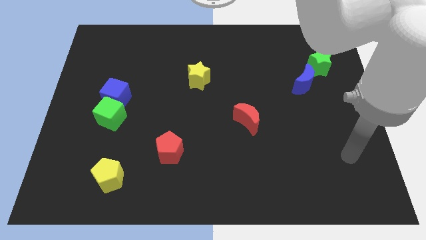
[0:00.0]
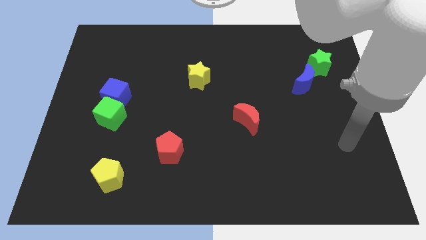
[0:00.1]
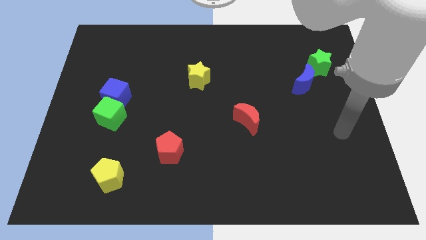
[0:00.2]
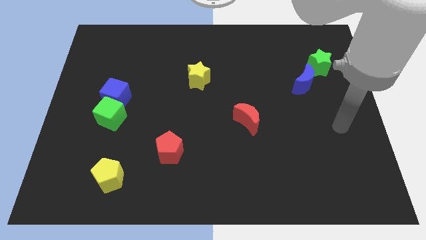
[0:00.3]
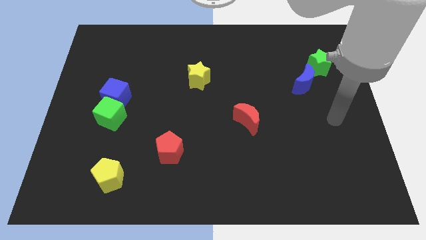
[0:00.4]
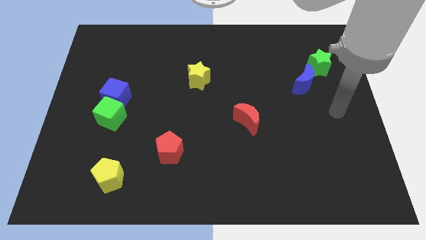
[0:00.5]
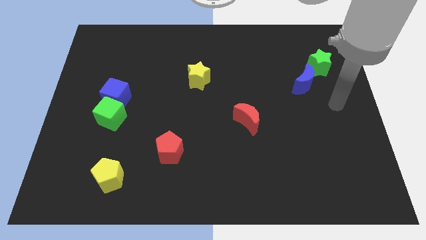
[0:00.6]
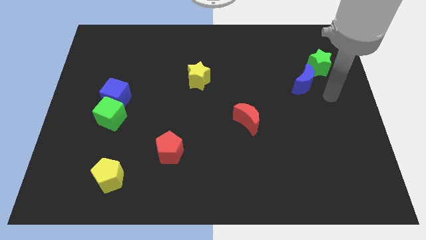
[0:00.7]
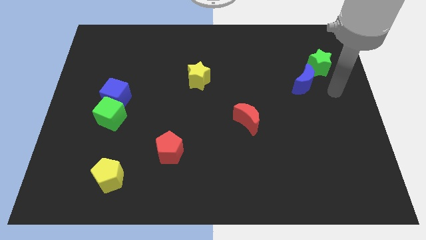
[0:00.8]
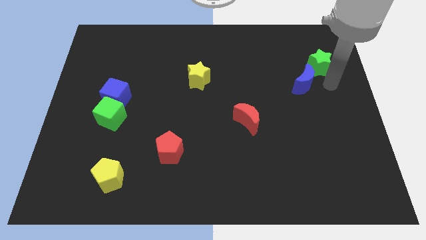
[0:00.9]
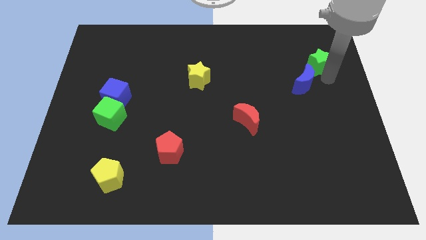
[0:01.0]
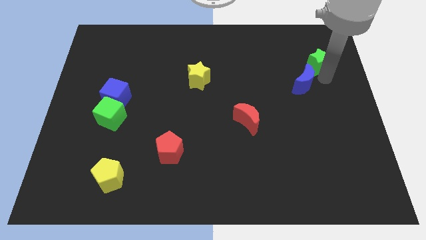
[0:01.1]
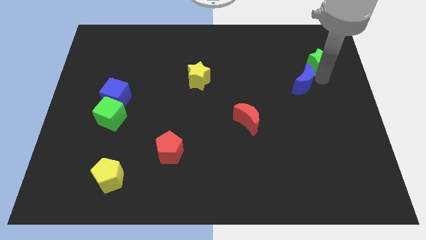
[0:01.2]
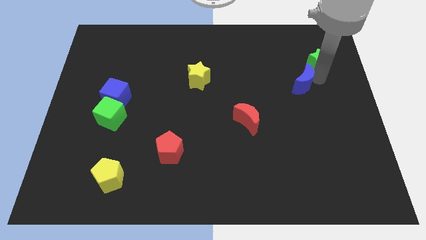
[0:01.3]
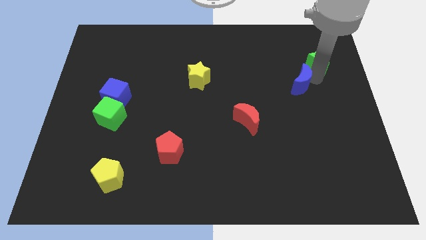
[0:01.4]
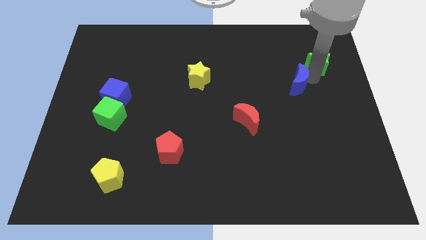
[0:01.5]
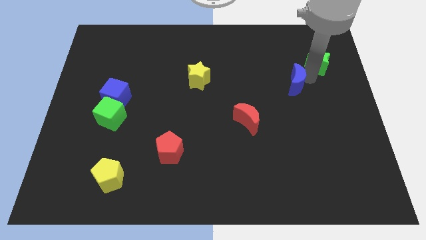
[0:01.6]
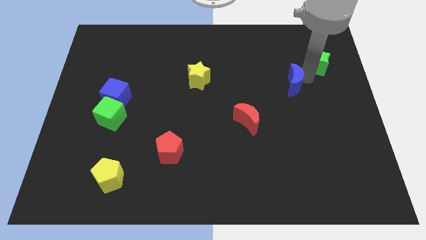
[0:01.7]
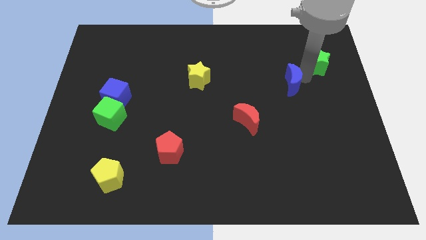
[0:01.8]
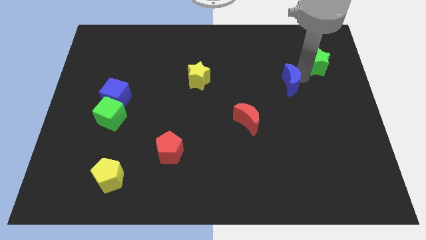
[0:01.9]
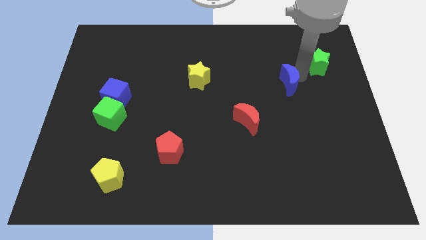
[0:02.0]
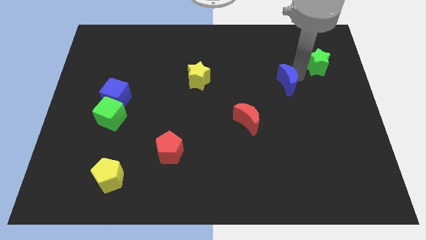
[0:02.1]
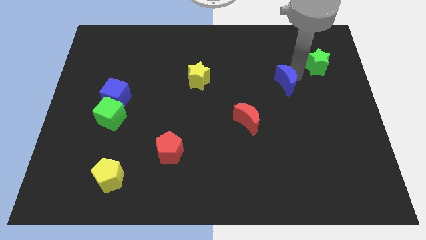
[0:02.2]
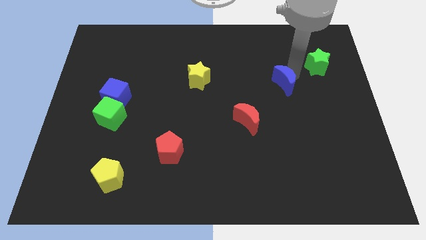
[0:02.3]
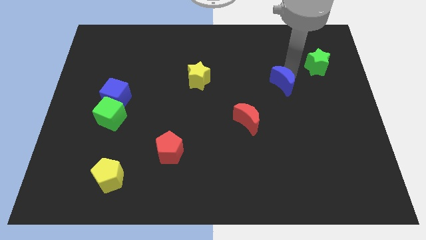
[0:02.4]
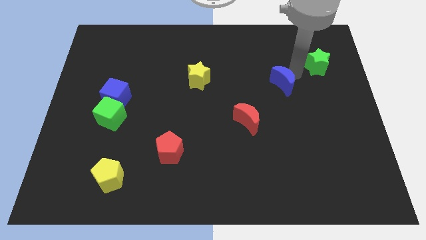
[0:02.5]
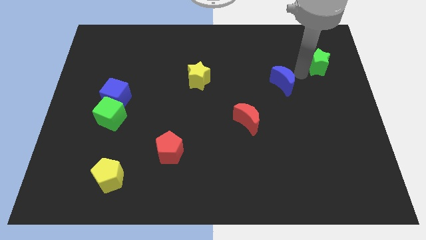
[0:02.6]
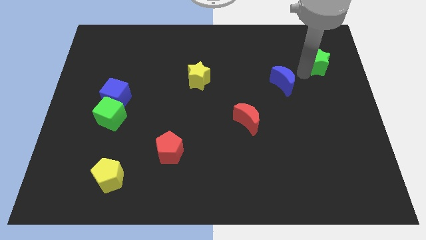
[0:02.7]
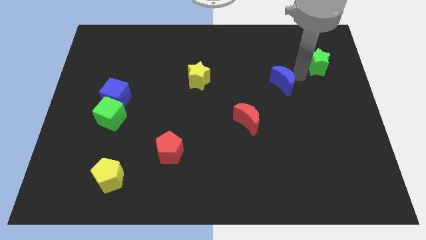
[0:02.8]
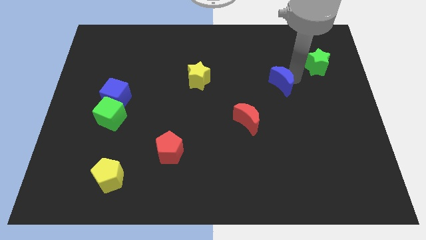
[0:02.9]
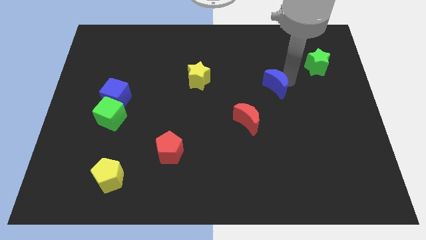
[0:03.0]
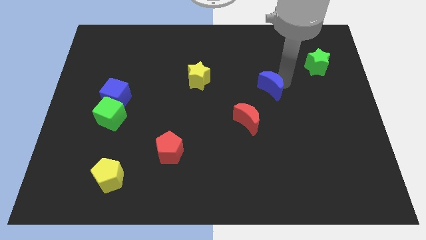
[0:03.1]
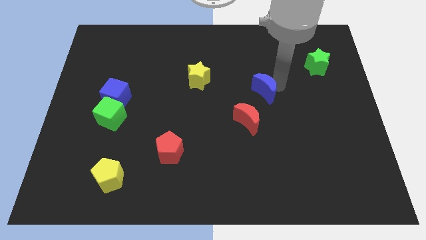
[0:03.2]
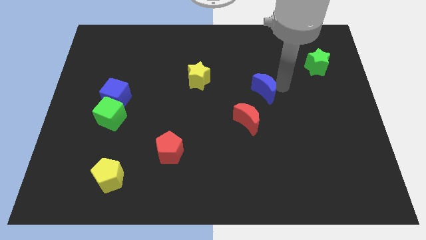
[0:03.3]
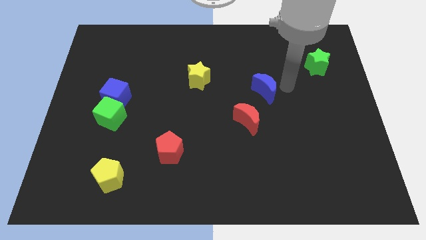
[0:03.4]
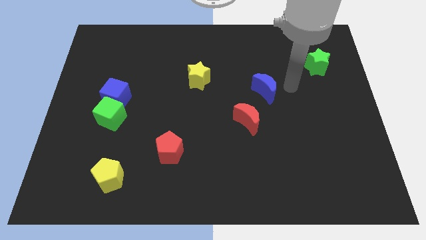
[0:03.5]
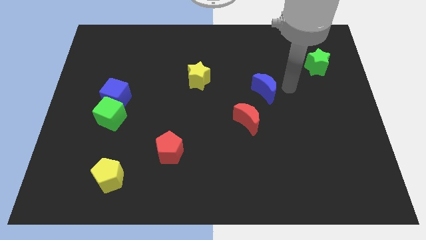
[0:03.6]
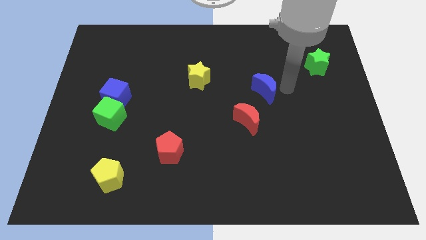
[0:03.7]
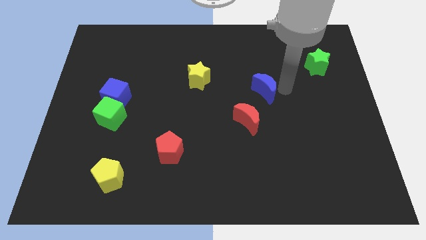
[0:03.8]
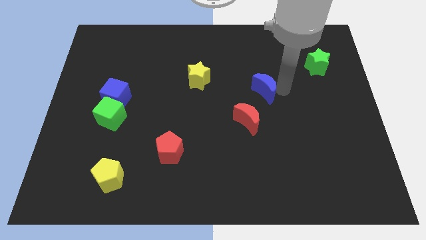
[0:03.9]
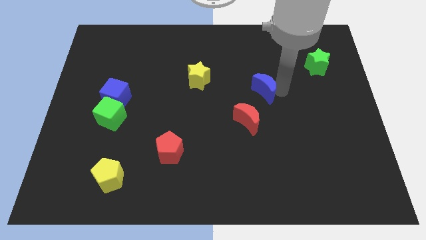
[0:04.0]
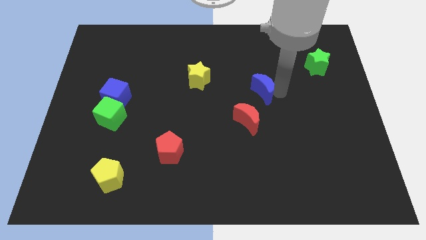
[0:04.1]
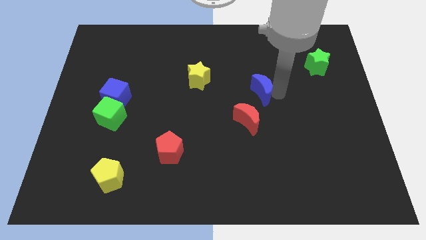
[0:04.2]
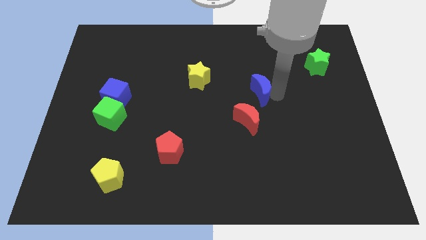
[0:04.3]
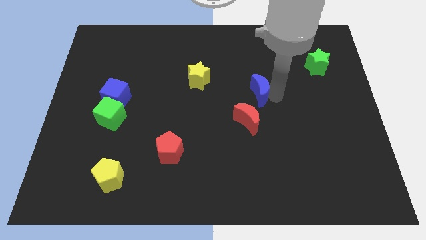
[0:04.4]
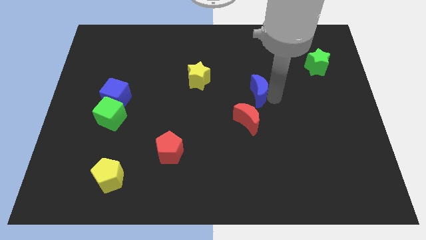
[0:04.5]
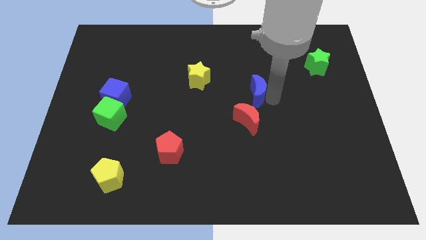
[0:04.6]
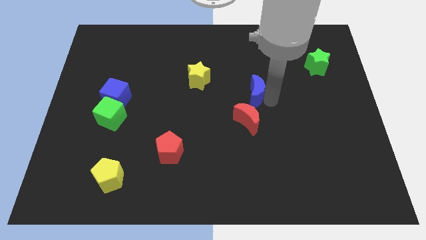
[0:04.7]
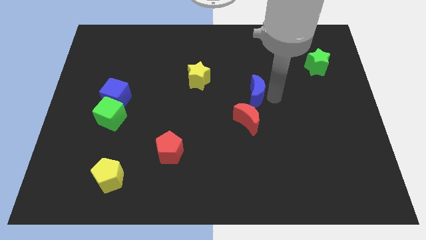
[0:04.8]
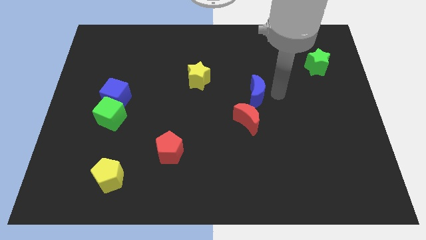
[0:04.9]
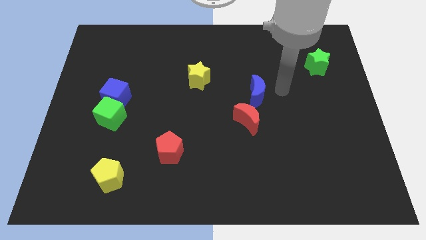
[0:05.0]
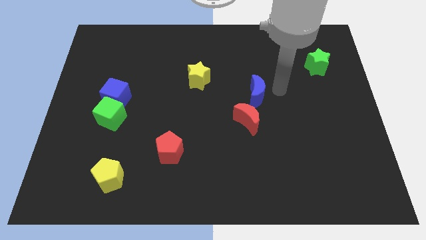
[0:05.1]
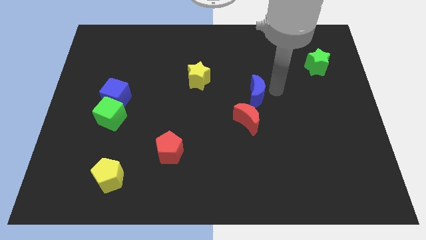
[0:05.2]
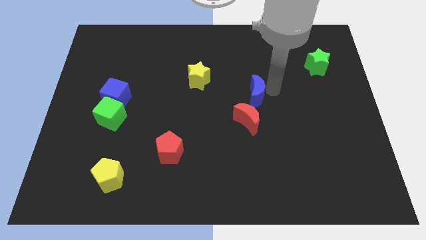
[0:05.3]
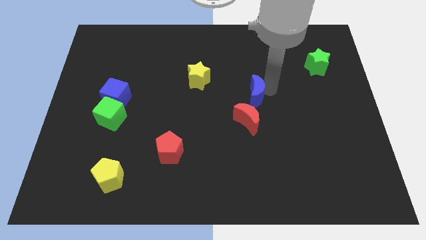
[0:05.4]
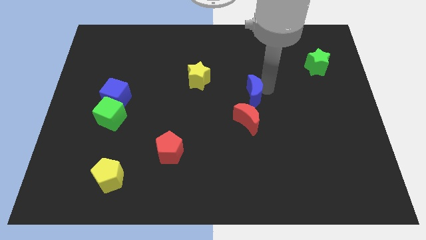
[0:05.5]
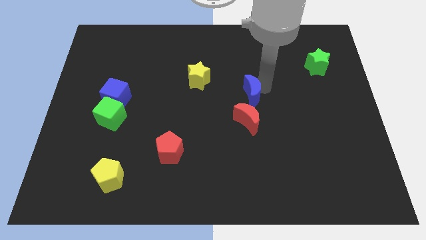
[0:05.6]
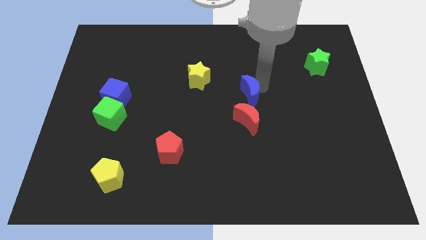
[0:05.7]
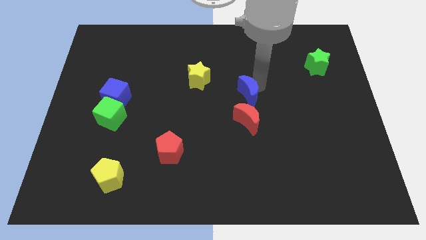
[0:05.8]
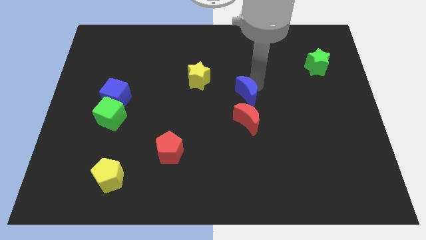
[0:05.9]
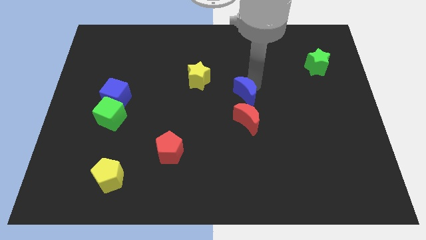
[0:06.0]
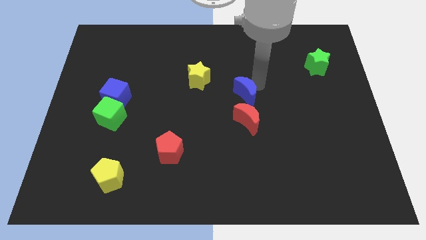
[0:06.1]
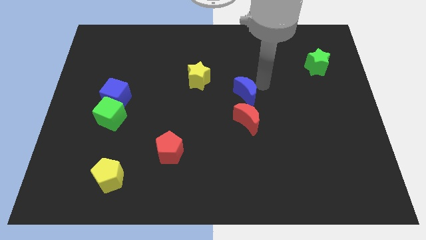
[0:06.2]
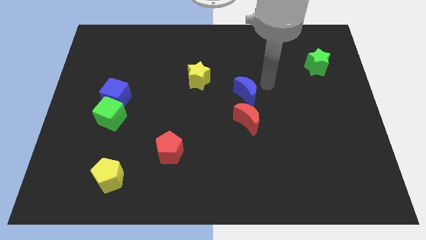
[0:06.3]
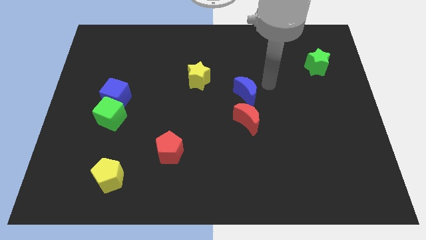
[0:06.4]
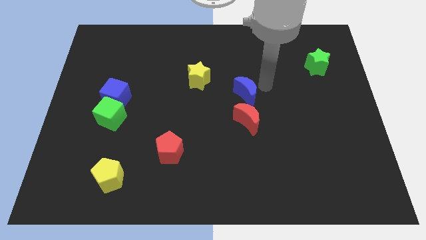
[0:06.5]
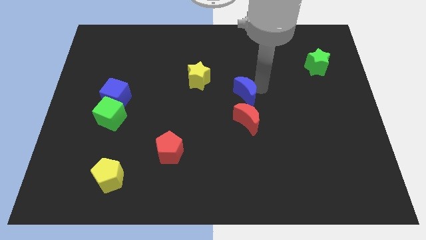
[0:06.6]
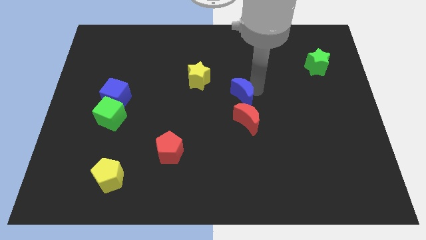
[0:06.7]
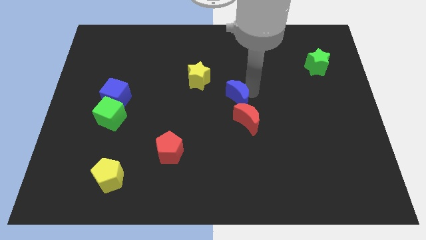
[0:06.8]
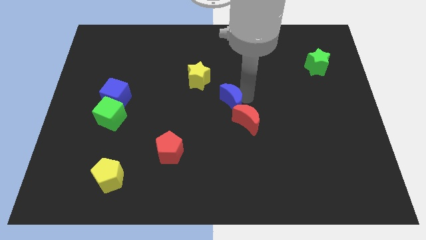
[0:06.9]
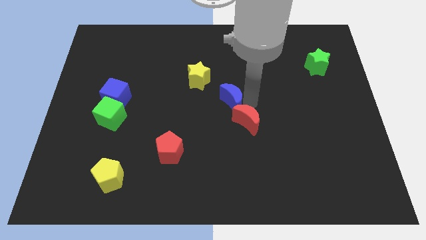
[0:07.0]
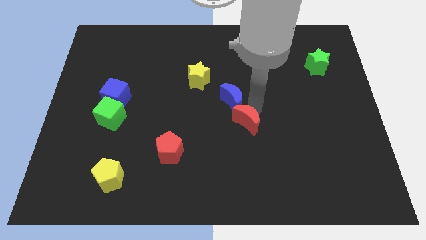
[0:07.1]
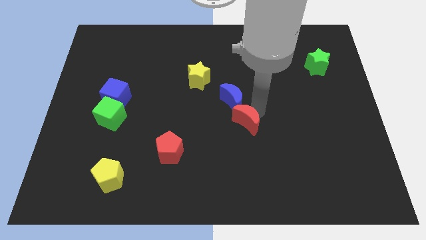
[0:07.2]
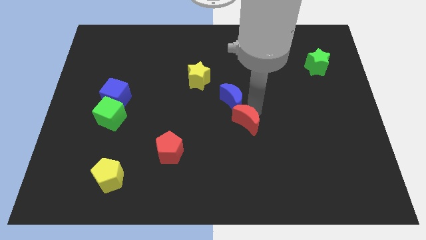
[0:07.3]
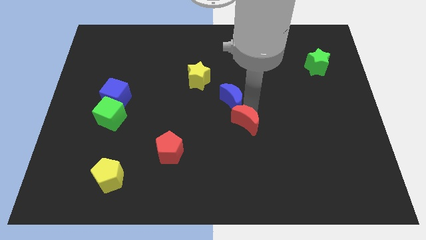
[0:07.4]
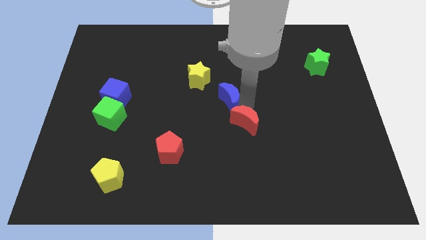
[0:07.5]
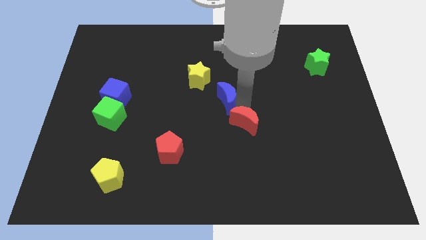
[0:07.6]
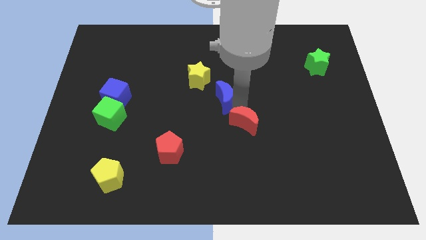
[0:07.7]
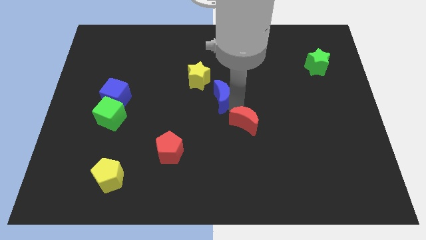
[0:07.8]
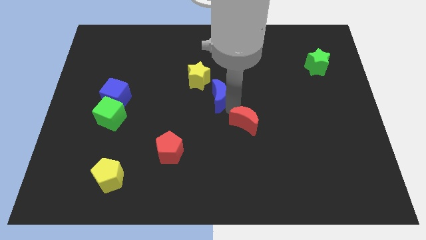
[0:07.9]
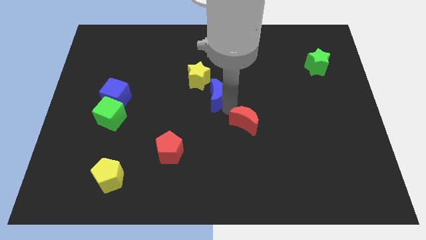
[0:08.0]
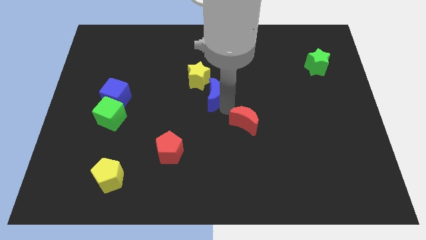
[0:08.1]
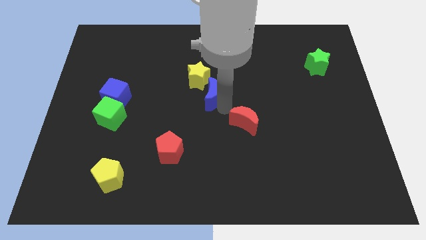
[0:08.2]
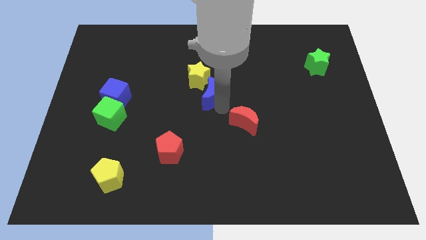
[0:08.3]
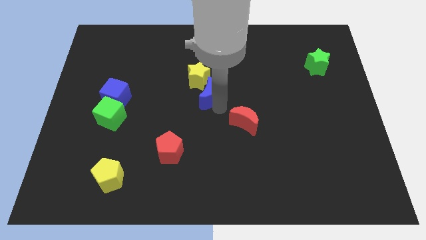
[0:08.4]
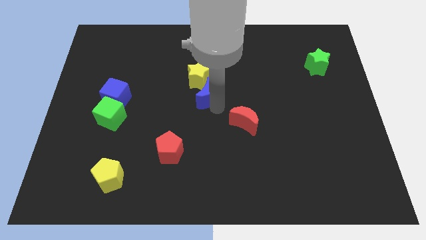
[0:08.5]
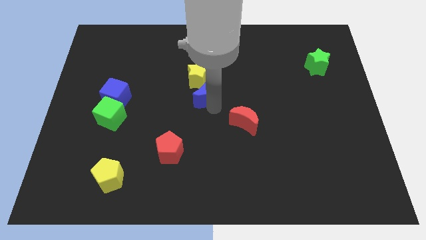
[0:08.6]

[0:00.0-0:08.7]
put the blue moon next to the yellow star
